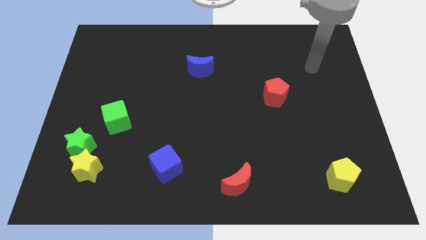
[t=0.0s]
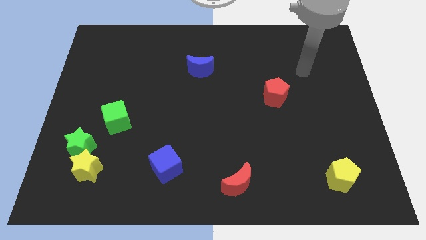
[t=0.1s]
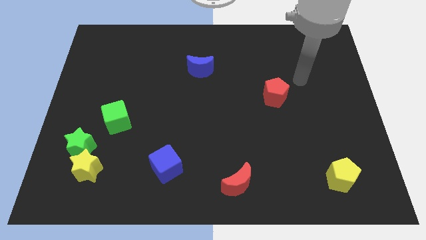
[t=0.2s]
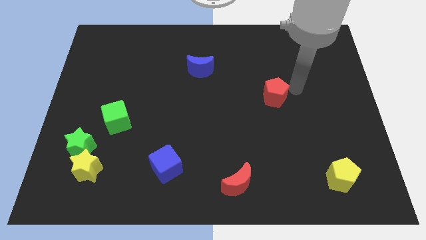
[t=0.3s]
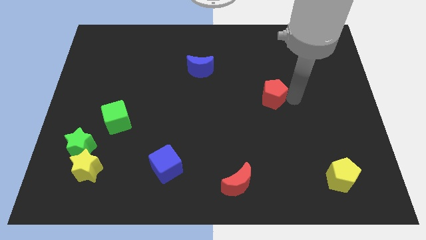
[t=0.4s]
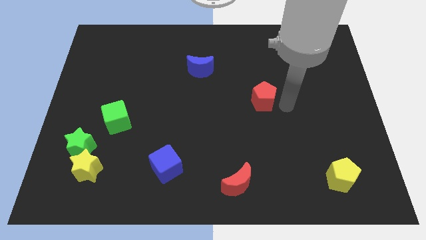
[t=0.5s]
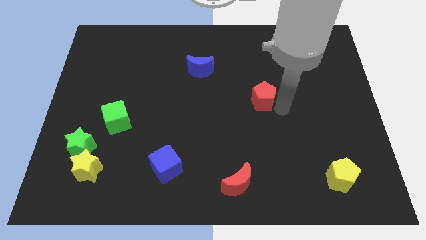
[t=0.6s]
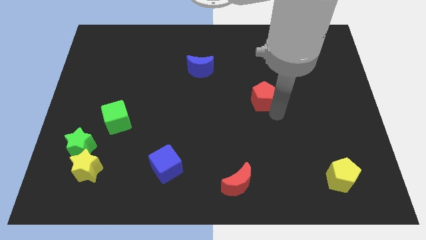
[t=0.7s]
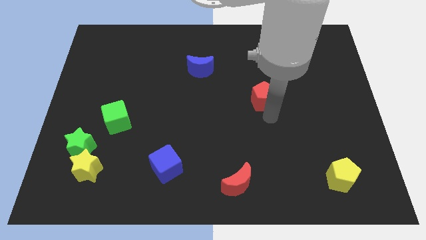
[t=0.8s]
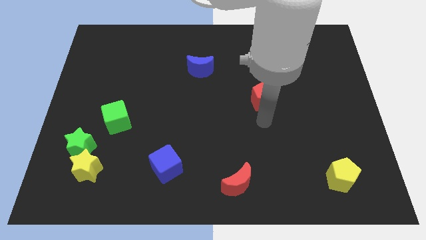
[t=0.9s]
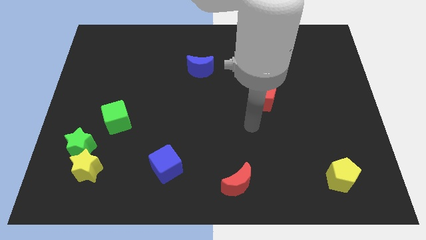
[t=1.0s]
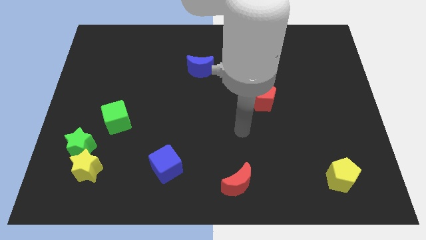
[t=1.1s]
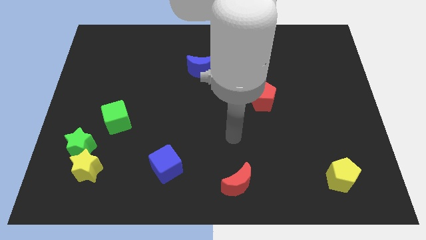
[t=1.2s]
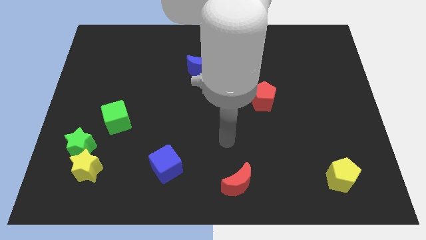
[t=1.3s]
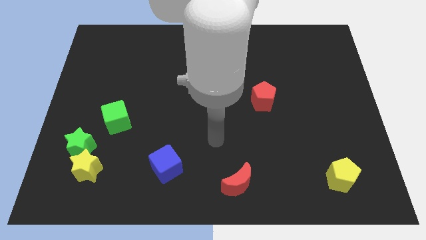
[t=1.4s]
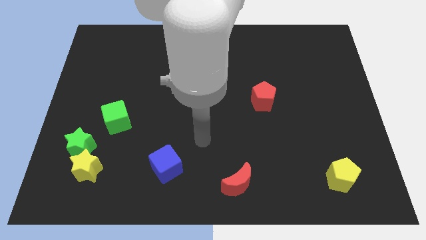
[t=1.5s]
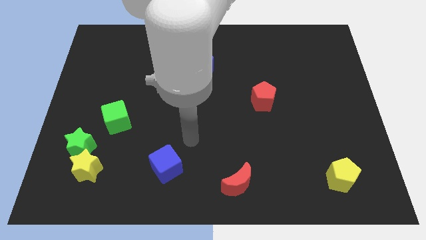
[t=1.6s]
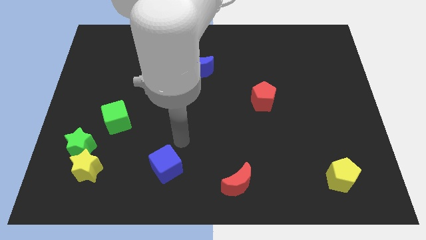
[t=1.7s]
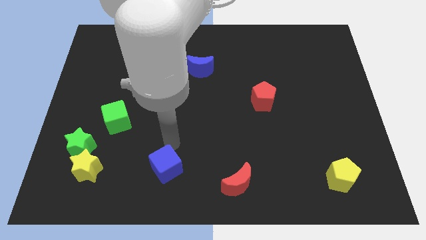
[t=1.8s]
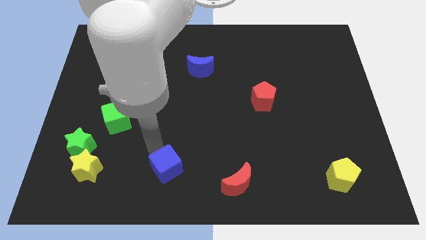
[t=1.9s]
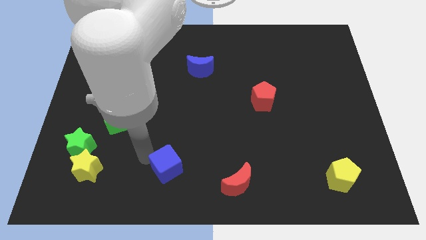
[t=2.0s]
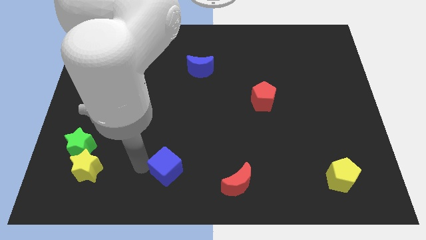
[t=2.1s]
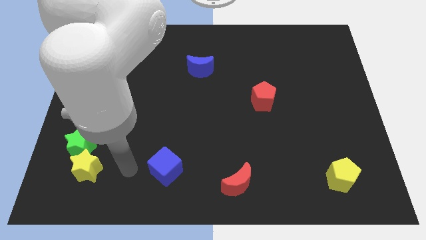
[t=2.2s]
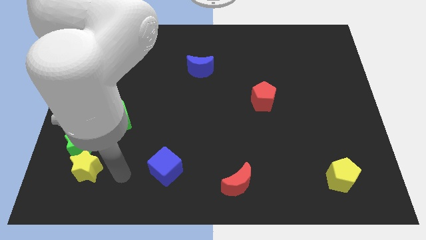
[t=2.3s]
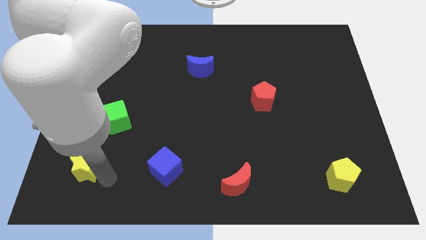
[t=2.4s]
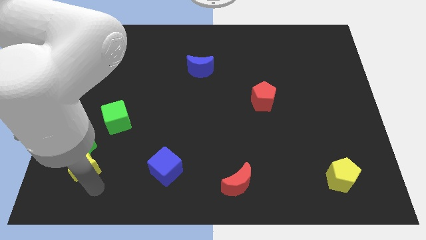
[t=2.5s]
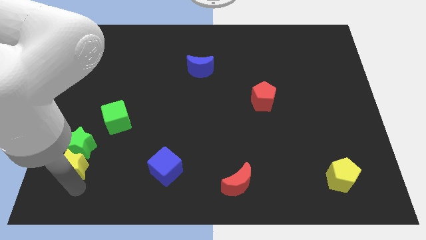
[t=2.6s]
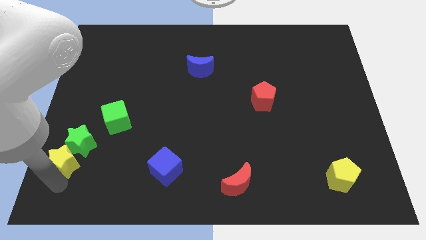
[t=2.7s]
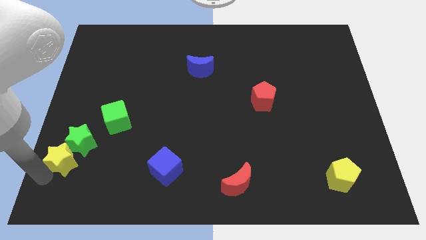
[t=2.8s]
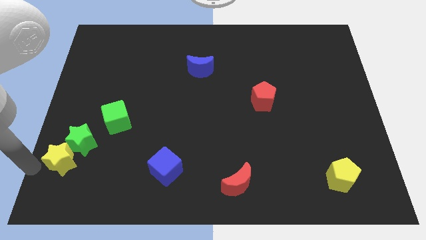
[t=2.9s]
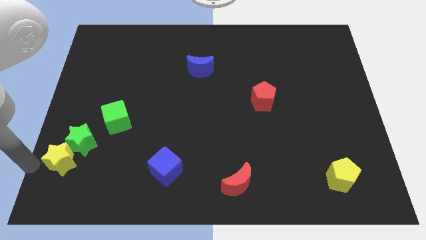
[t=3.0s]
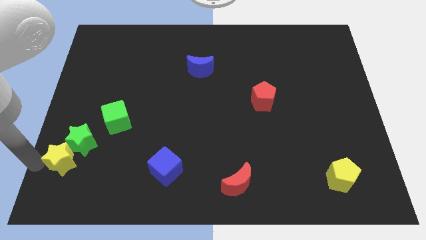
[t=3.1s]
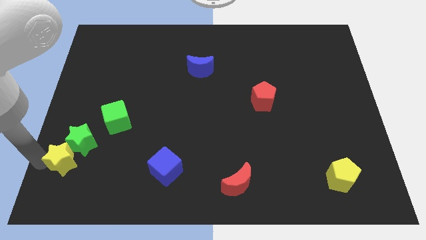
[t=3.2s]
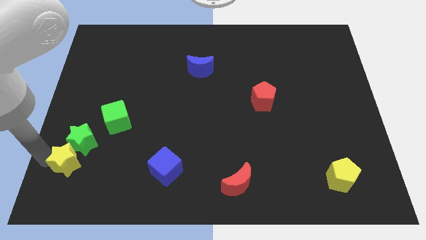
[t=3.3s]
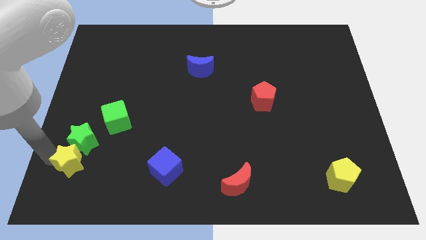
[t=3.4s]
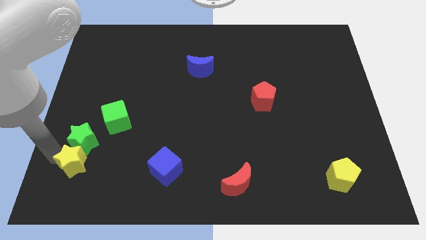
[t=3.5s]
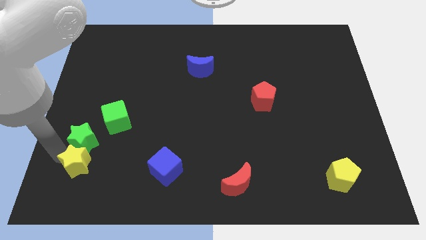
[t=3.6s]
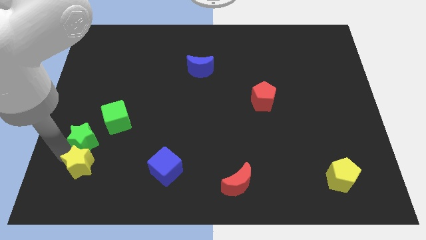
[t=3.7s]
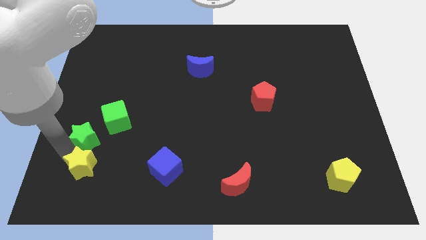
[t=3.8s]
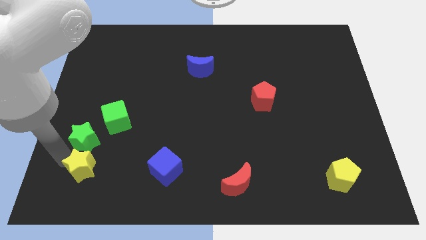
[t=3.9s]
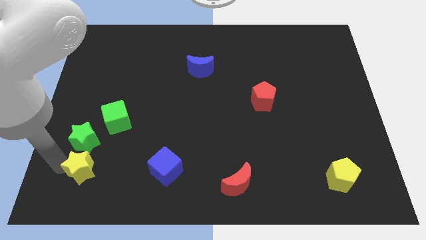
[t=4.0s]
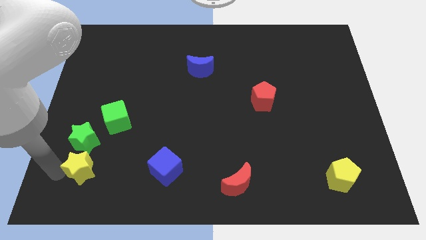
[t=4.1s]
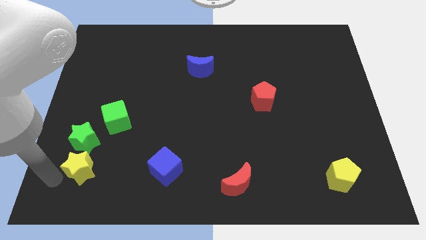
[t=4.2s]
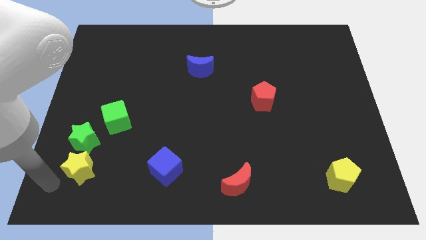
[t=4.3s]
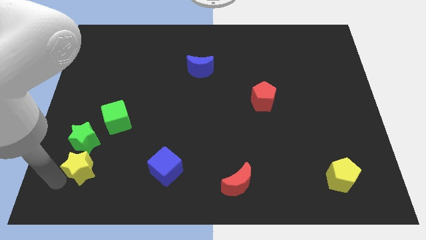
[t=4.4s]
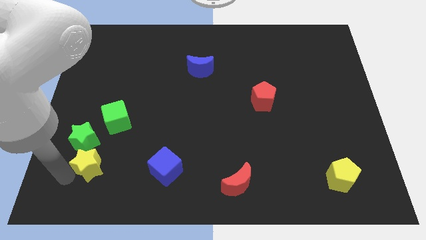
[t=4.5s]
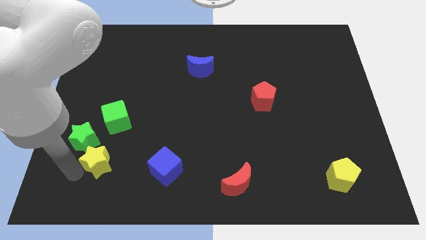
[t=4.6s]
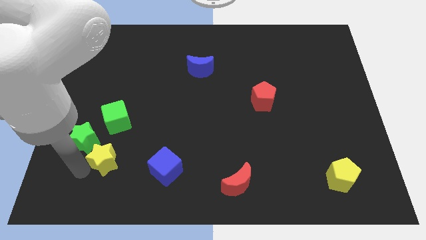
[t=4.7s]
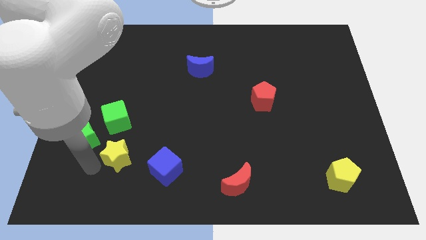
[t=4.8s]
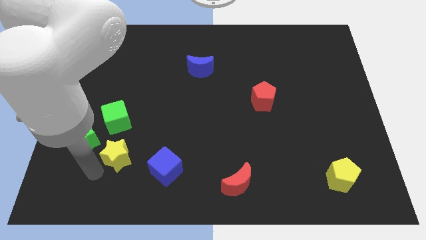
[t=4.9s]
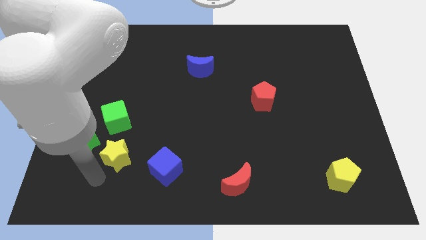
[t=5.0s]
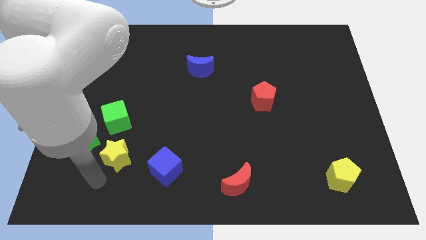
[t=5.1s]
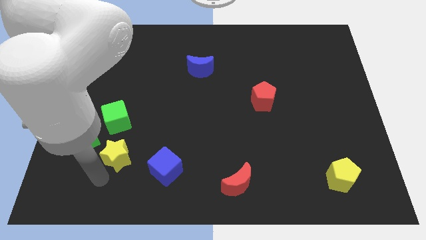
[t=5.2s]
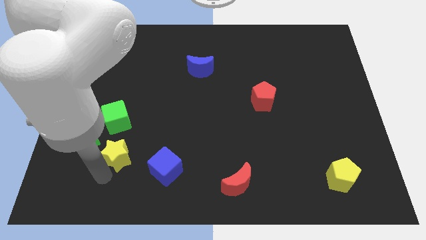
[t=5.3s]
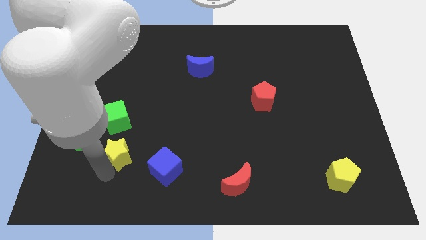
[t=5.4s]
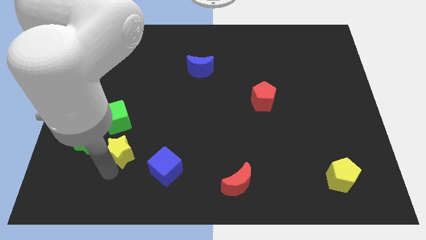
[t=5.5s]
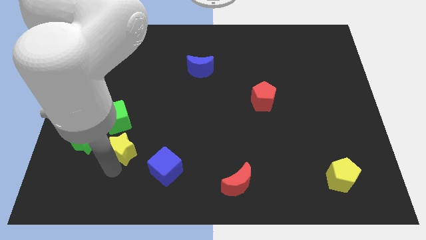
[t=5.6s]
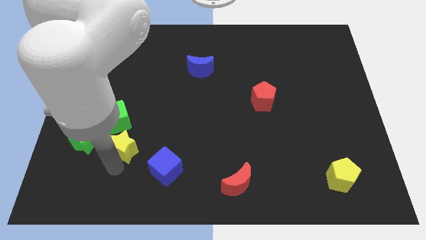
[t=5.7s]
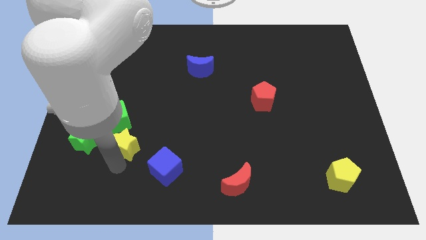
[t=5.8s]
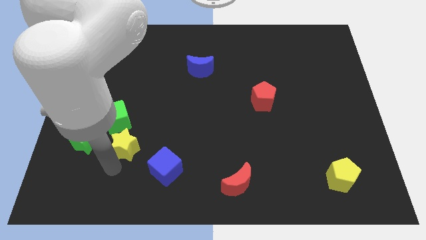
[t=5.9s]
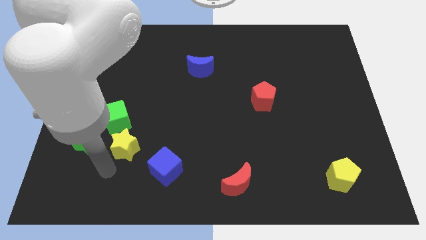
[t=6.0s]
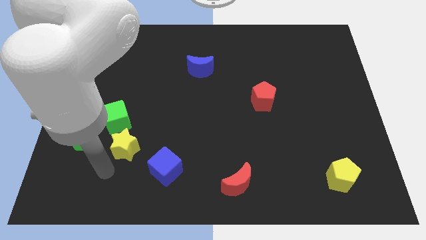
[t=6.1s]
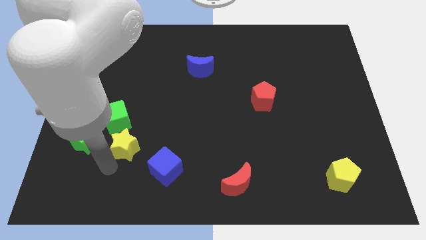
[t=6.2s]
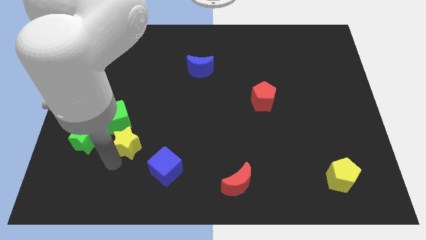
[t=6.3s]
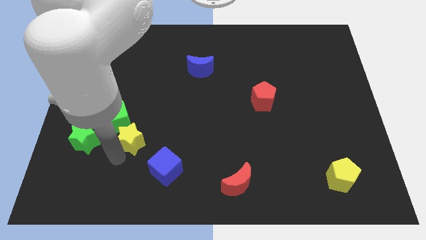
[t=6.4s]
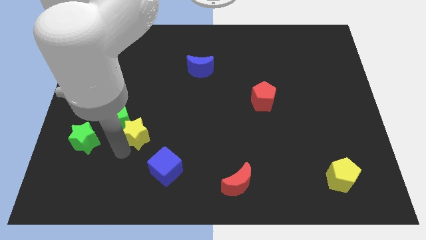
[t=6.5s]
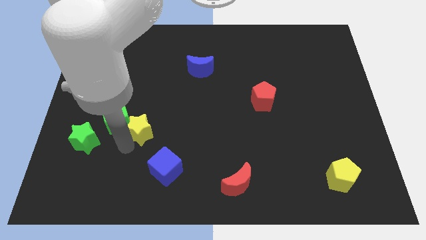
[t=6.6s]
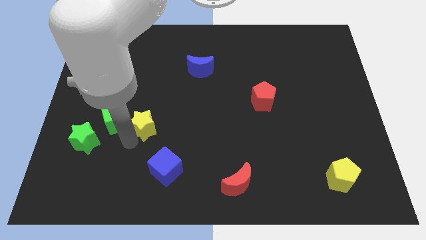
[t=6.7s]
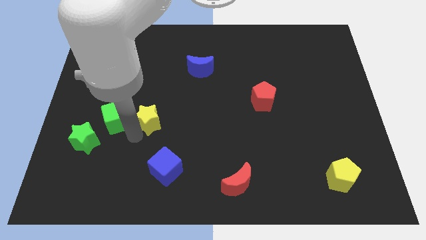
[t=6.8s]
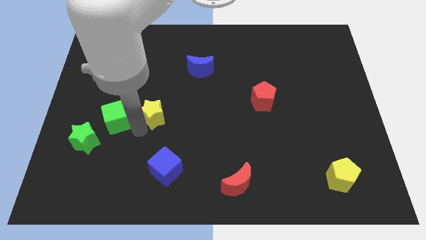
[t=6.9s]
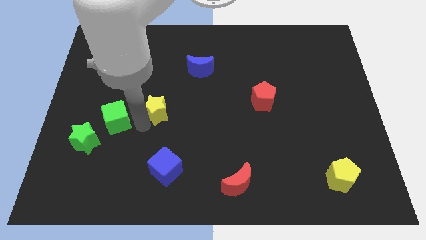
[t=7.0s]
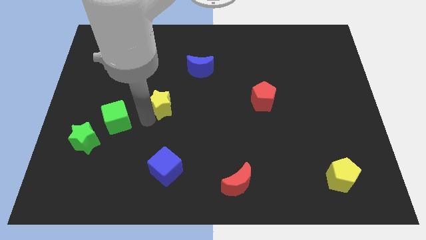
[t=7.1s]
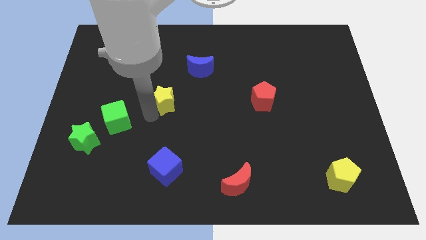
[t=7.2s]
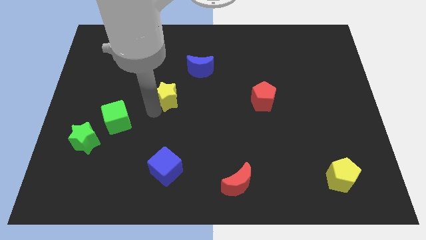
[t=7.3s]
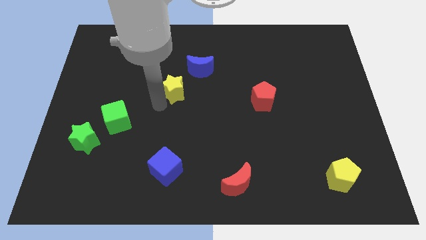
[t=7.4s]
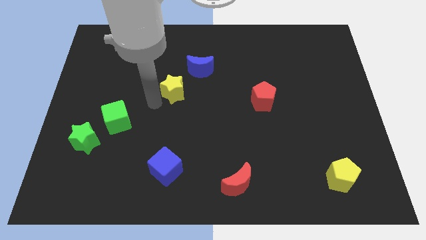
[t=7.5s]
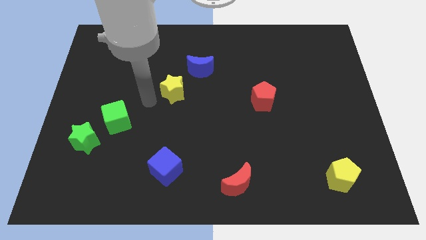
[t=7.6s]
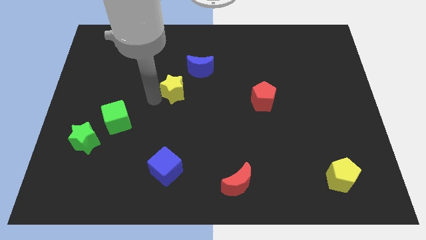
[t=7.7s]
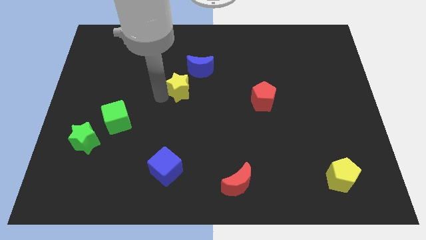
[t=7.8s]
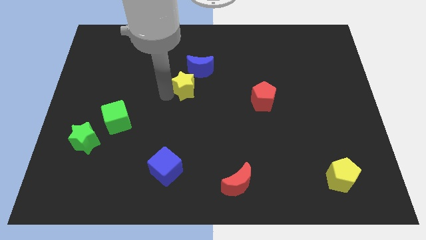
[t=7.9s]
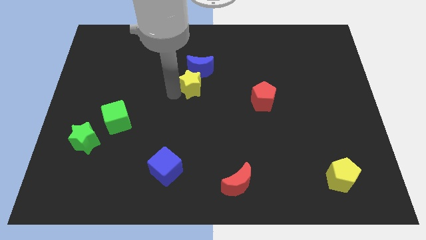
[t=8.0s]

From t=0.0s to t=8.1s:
put the yellow star next to the blue moon
